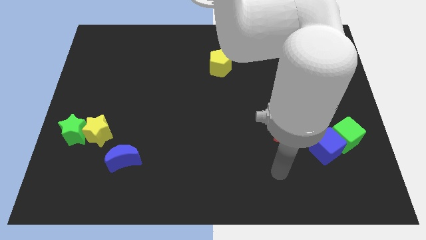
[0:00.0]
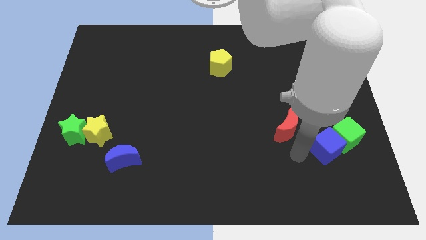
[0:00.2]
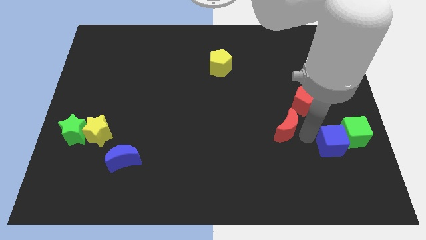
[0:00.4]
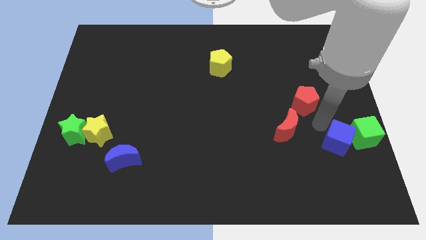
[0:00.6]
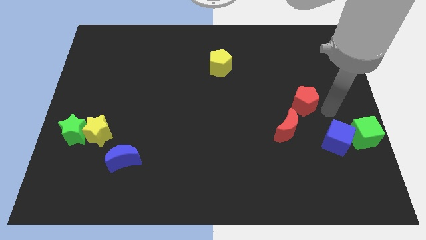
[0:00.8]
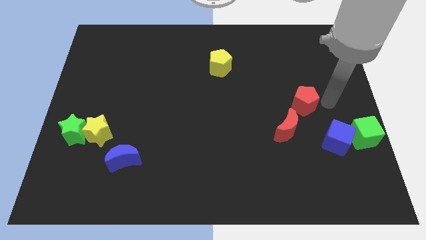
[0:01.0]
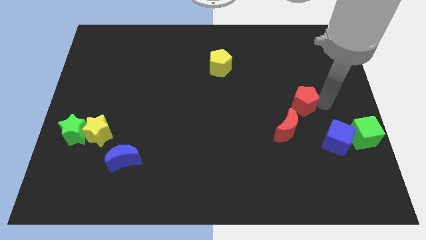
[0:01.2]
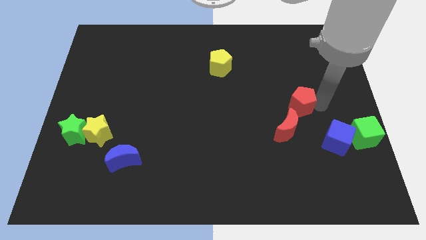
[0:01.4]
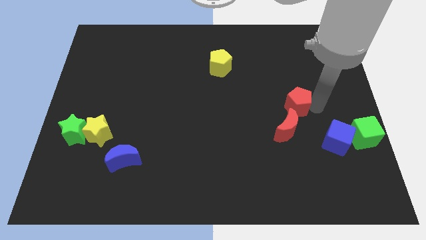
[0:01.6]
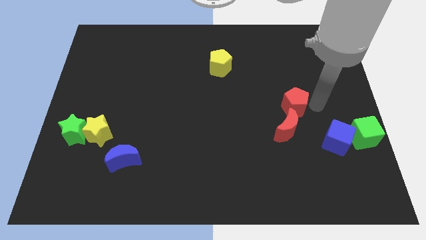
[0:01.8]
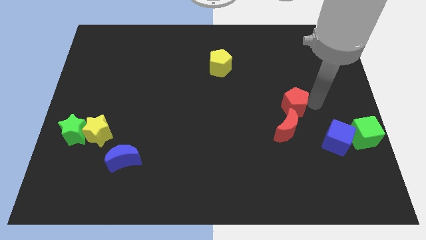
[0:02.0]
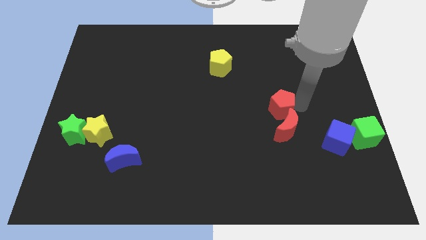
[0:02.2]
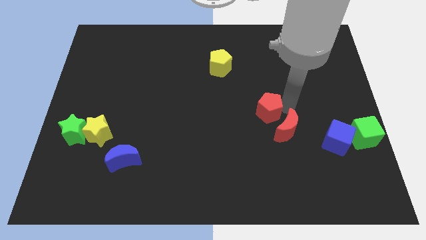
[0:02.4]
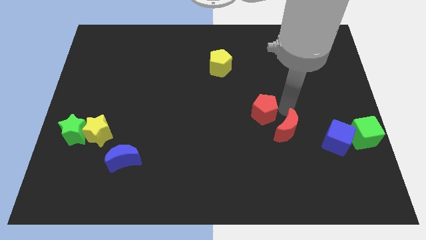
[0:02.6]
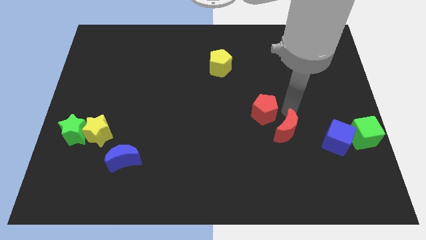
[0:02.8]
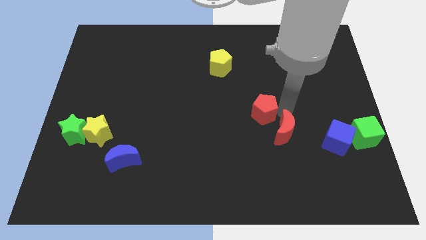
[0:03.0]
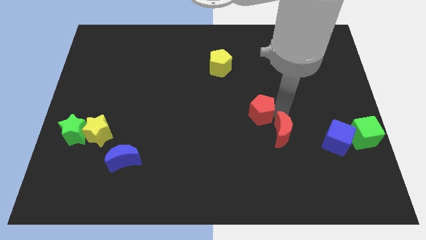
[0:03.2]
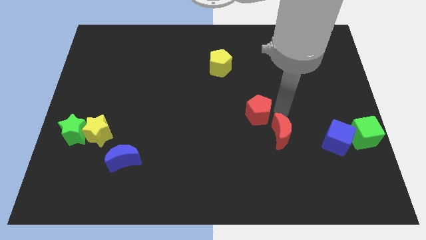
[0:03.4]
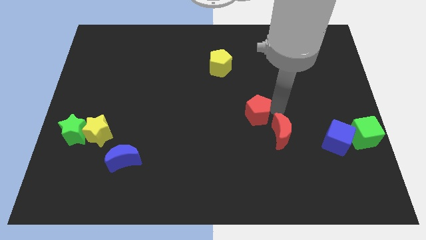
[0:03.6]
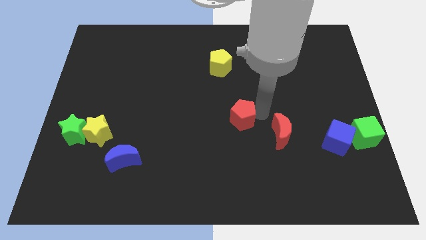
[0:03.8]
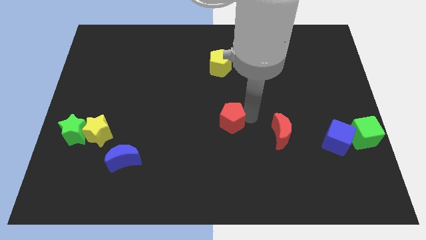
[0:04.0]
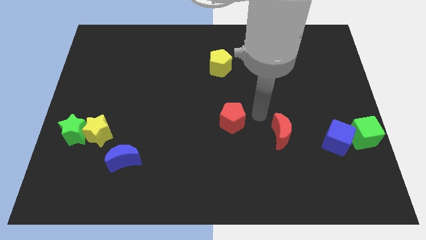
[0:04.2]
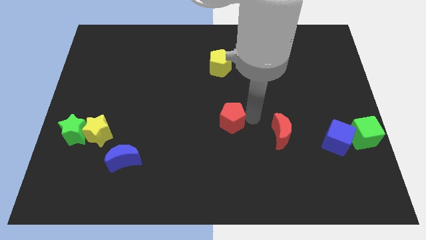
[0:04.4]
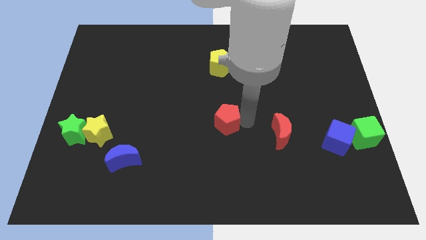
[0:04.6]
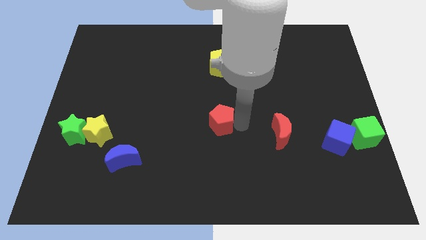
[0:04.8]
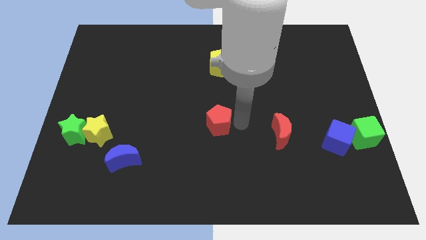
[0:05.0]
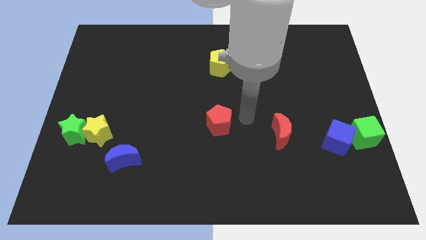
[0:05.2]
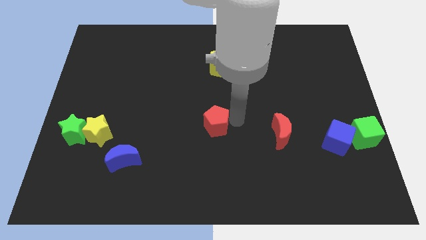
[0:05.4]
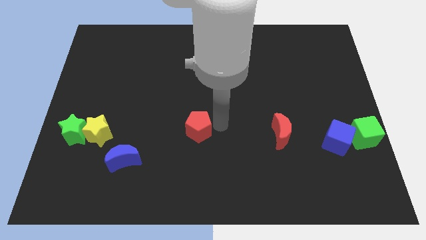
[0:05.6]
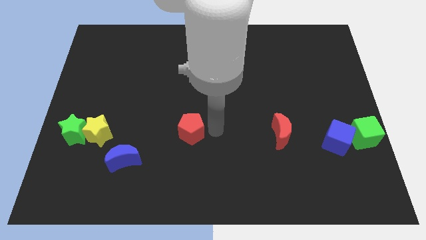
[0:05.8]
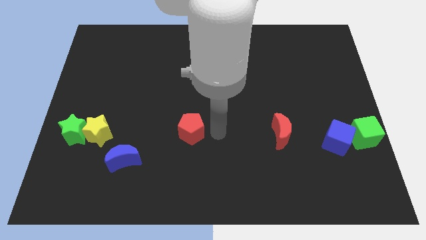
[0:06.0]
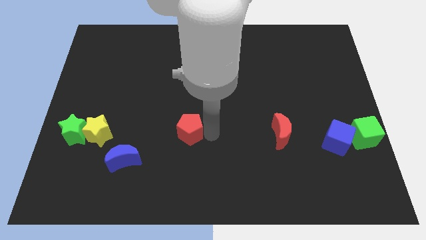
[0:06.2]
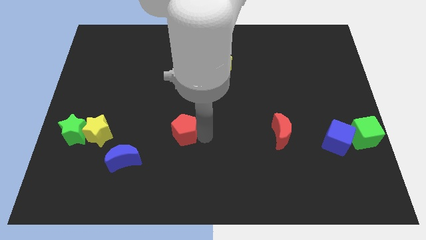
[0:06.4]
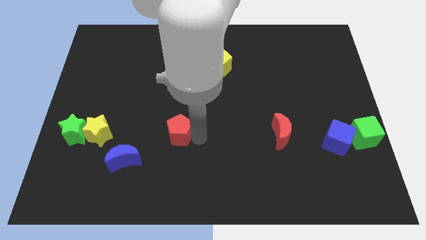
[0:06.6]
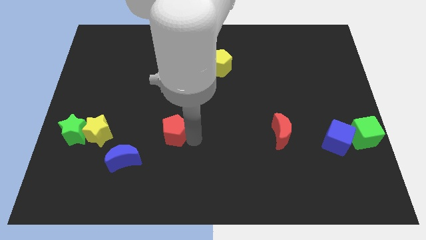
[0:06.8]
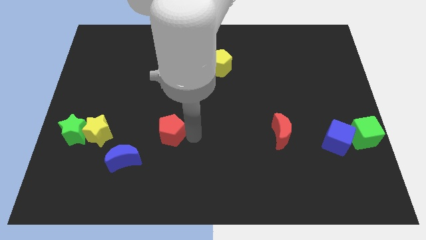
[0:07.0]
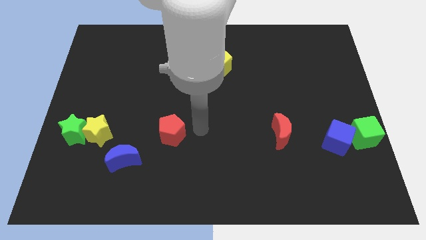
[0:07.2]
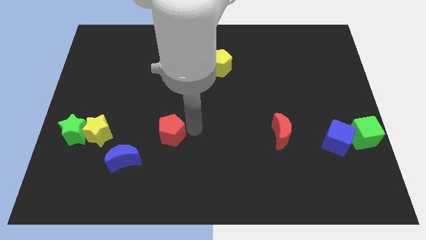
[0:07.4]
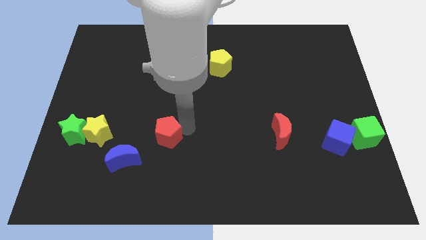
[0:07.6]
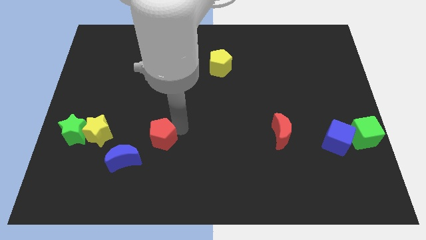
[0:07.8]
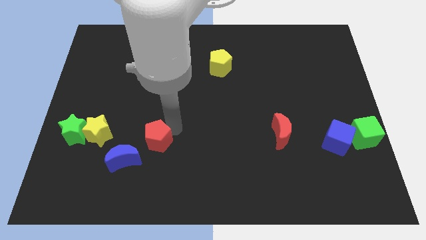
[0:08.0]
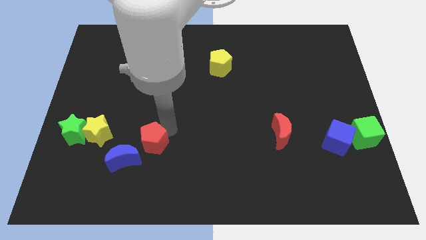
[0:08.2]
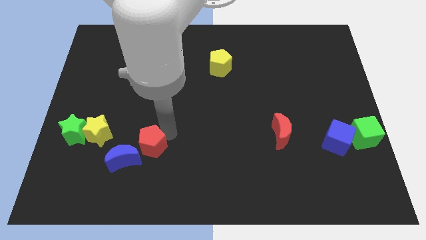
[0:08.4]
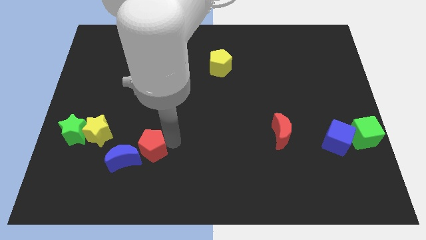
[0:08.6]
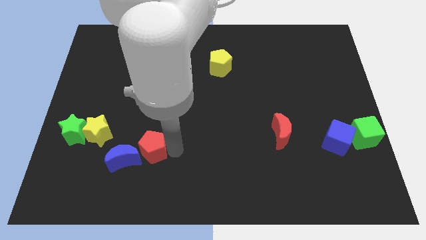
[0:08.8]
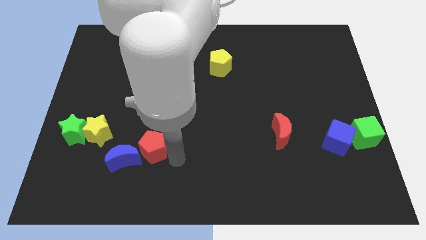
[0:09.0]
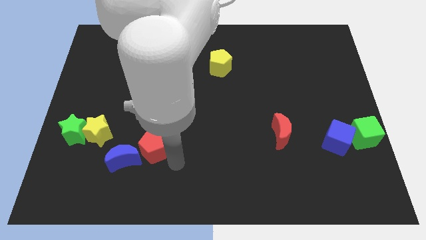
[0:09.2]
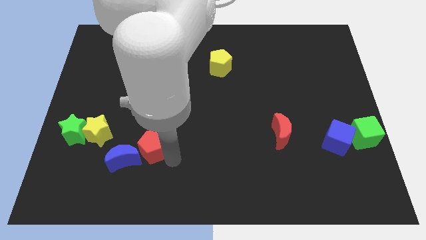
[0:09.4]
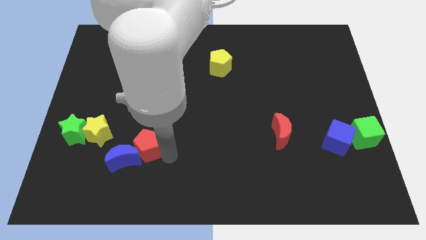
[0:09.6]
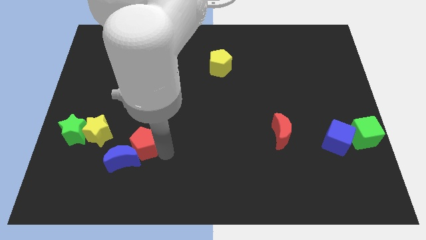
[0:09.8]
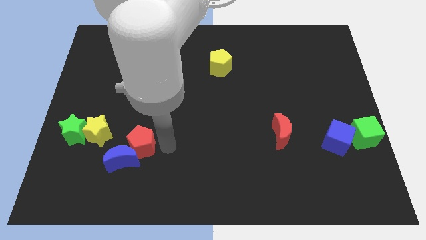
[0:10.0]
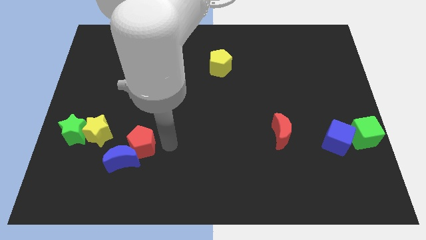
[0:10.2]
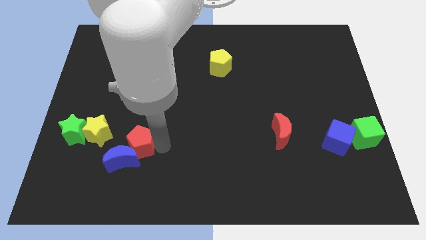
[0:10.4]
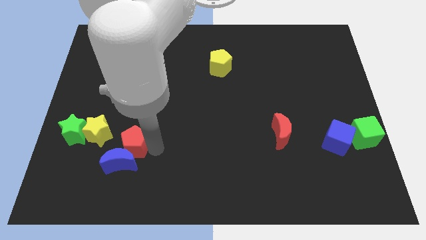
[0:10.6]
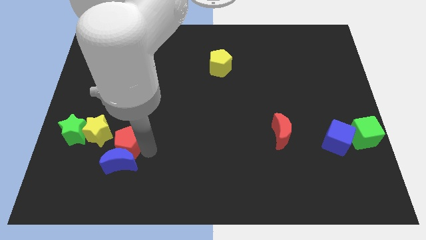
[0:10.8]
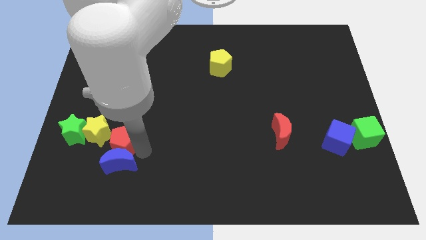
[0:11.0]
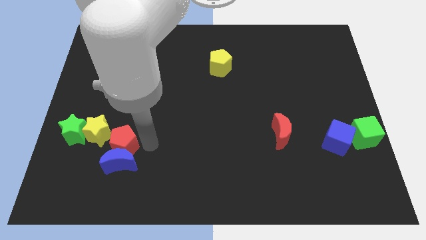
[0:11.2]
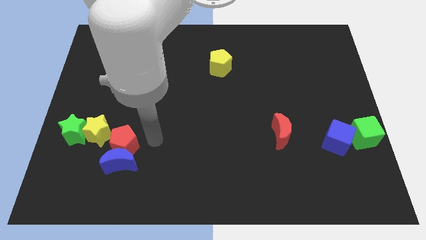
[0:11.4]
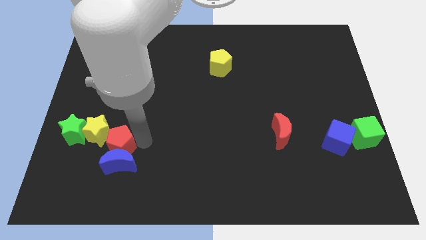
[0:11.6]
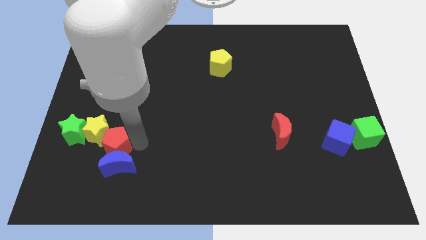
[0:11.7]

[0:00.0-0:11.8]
slide the red pentagon to the bottom of the yellow star

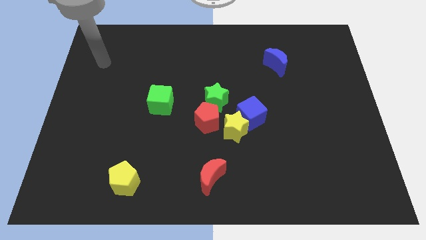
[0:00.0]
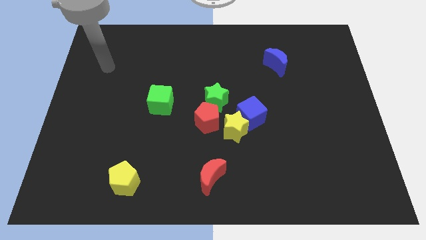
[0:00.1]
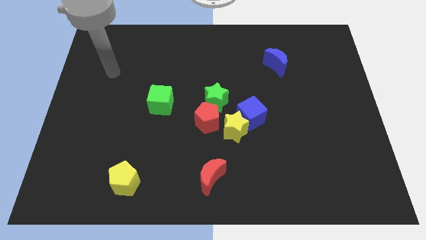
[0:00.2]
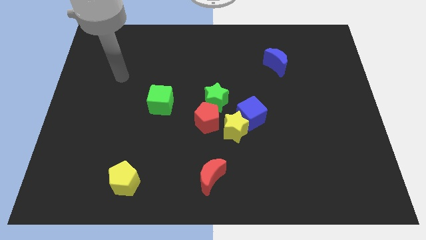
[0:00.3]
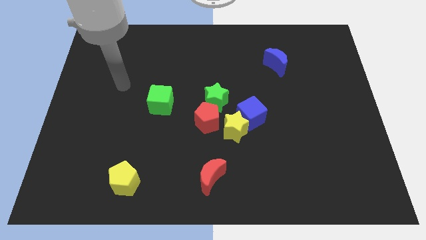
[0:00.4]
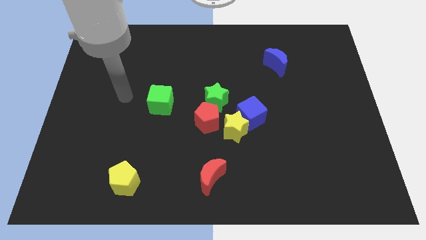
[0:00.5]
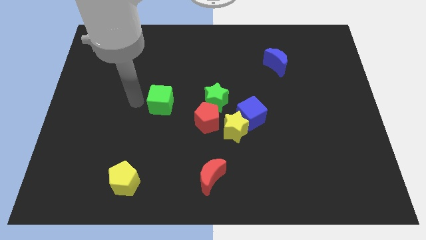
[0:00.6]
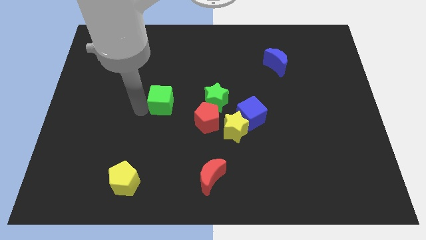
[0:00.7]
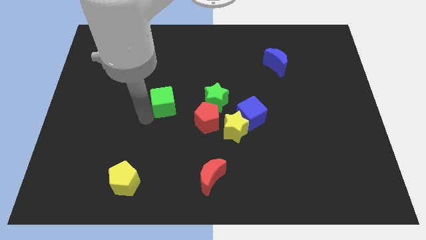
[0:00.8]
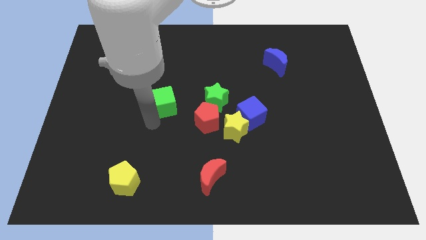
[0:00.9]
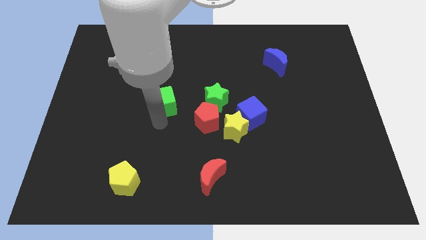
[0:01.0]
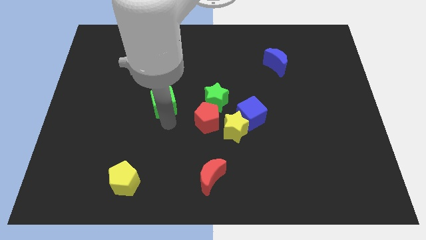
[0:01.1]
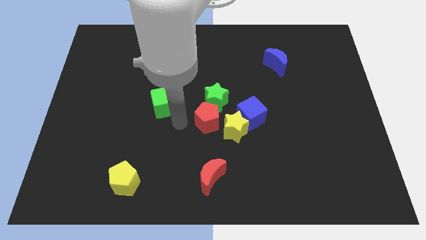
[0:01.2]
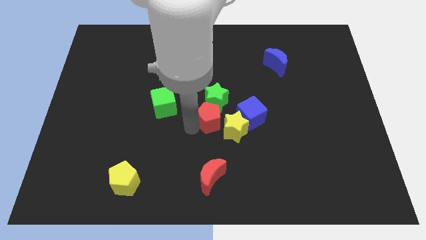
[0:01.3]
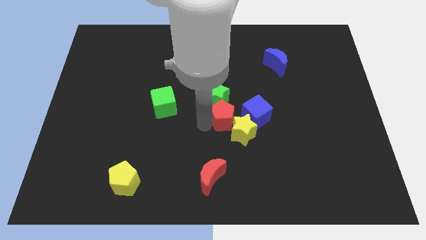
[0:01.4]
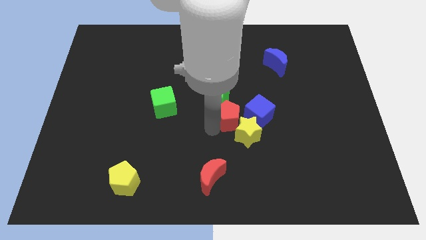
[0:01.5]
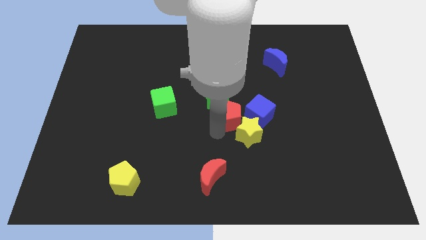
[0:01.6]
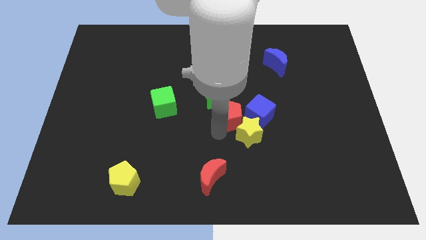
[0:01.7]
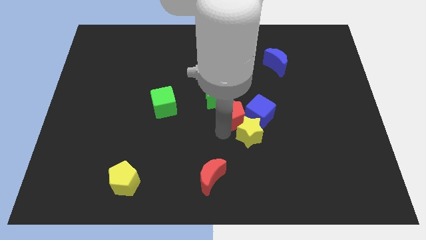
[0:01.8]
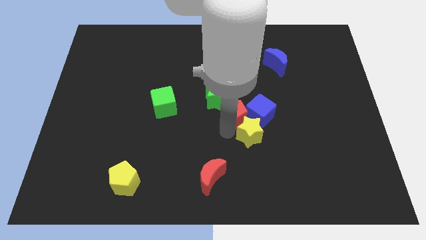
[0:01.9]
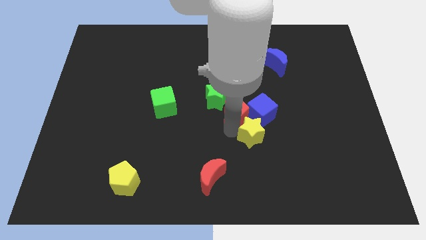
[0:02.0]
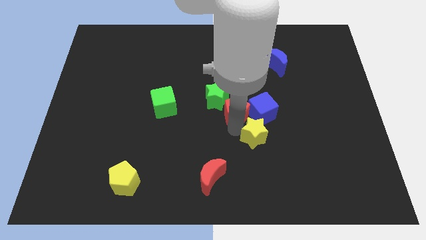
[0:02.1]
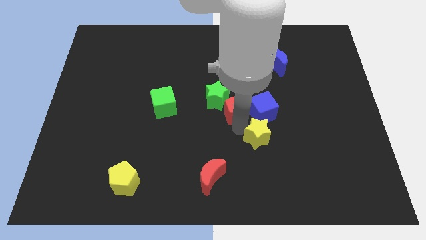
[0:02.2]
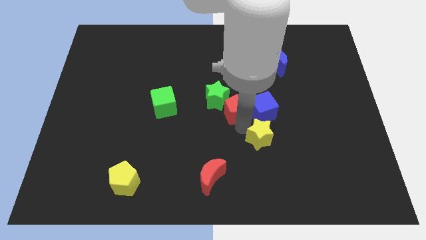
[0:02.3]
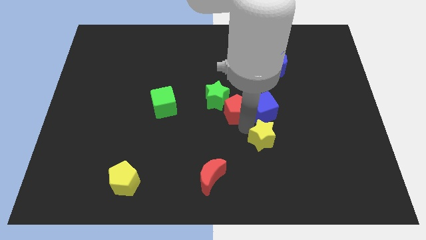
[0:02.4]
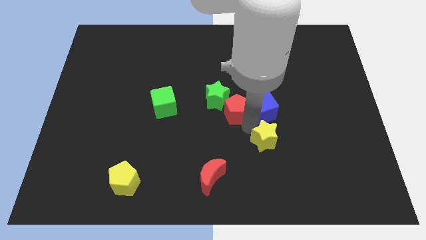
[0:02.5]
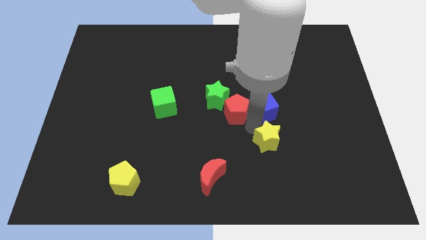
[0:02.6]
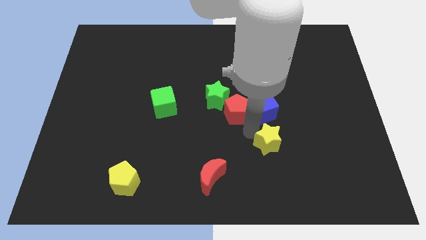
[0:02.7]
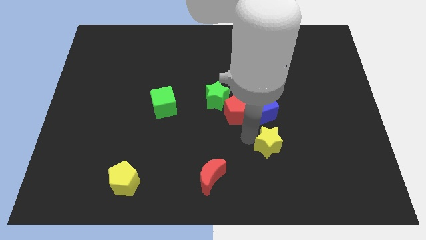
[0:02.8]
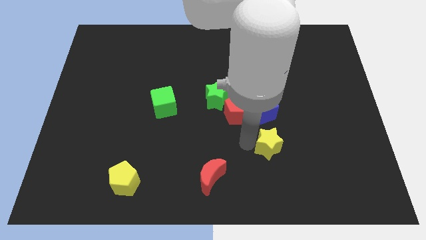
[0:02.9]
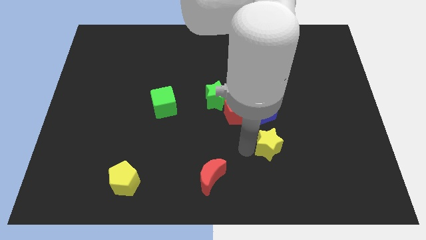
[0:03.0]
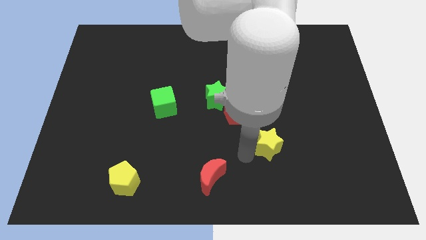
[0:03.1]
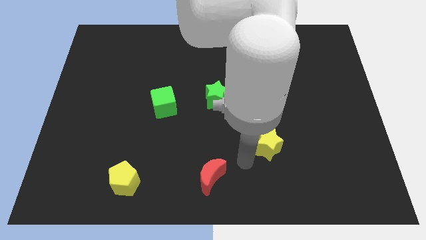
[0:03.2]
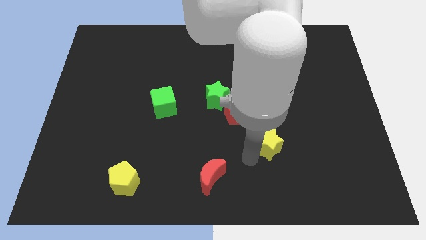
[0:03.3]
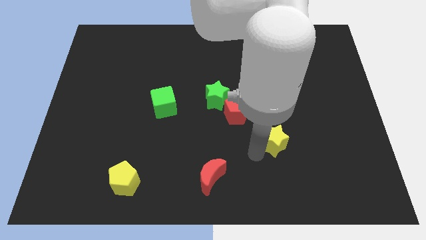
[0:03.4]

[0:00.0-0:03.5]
move the yellow star to the bottom right of the blue cube
